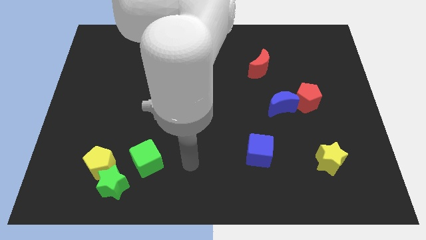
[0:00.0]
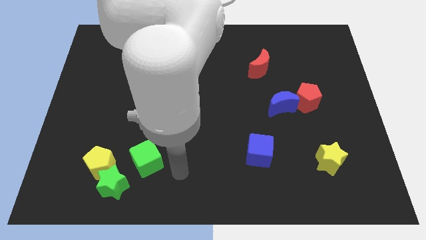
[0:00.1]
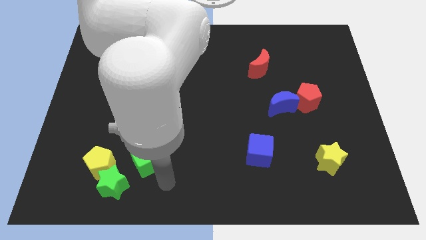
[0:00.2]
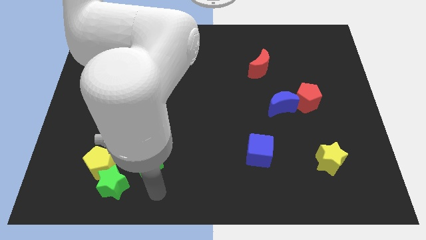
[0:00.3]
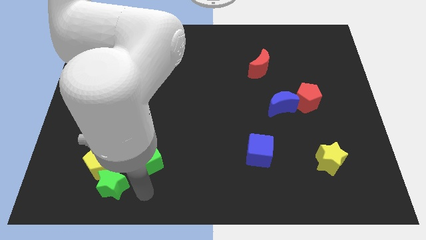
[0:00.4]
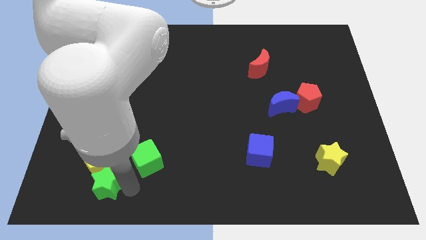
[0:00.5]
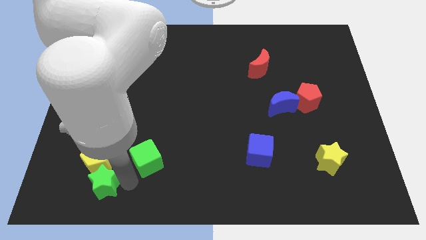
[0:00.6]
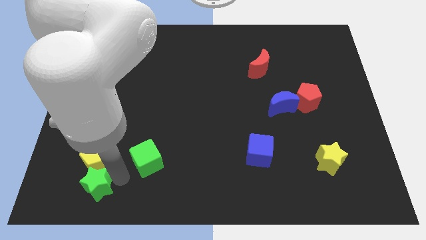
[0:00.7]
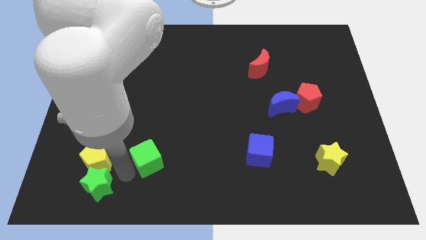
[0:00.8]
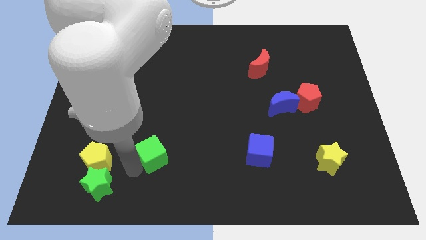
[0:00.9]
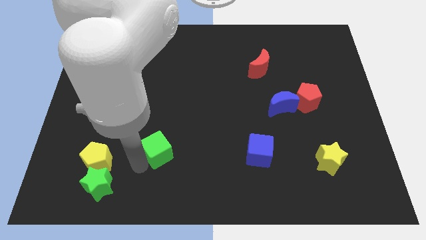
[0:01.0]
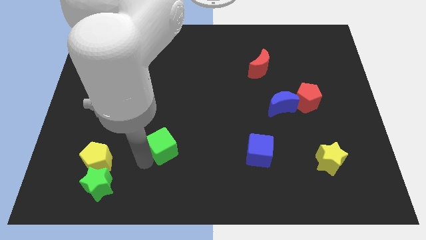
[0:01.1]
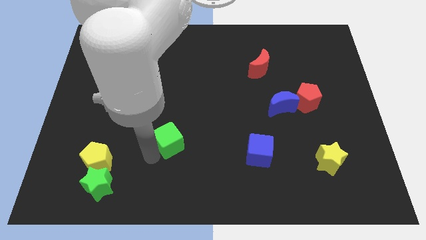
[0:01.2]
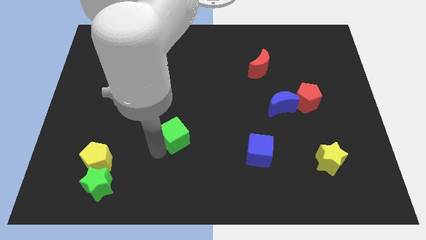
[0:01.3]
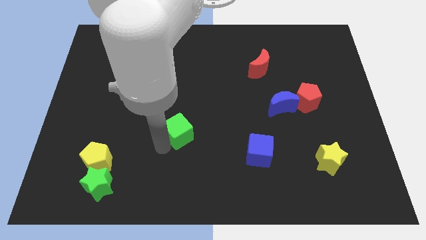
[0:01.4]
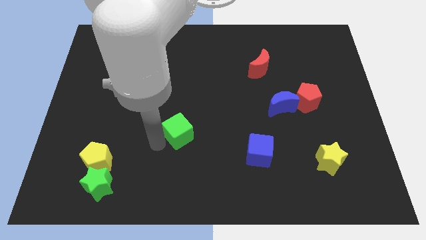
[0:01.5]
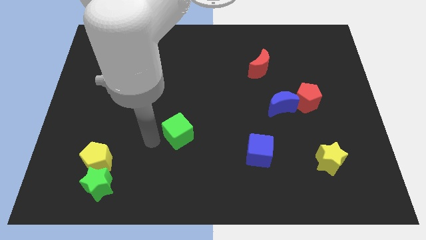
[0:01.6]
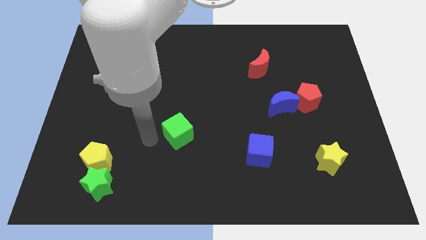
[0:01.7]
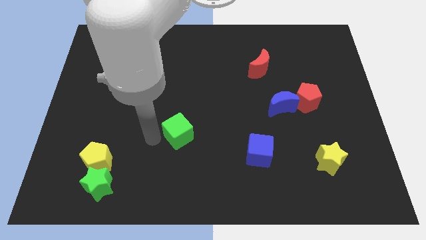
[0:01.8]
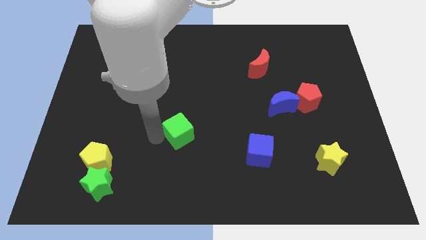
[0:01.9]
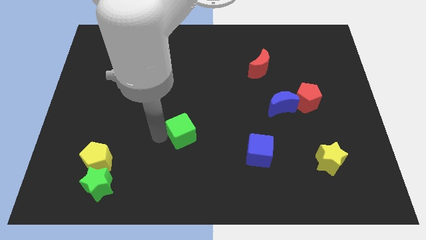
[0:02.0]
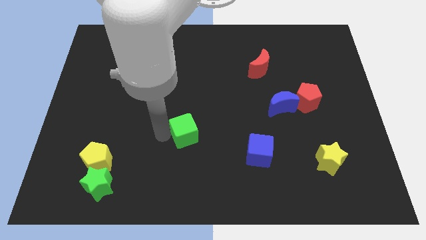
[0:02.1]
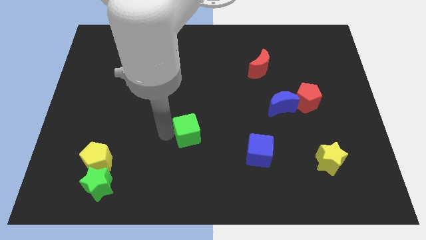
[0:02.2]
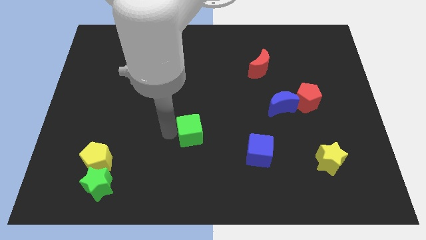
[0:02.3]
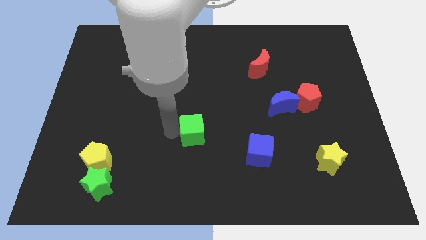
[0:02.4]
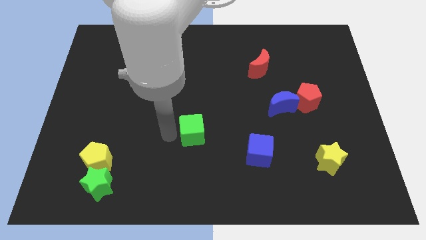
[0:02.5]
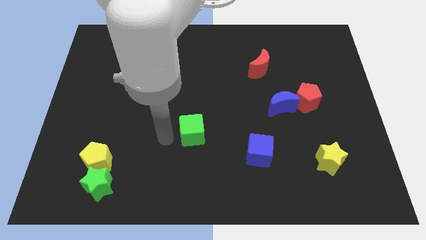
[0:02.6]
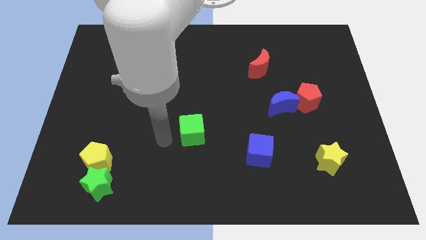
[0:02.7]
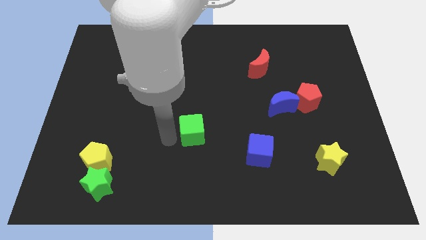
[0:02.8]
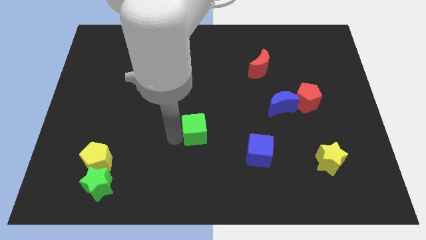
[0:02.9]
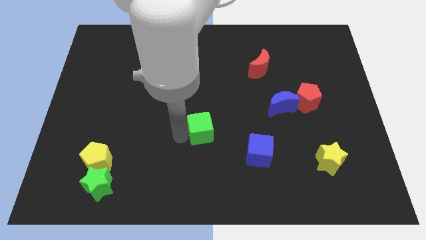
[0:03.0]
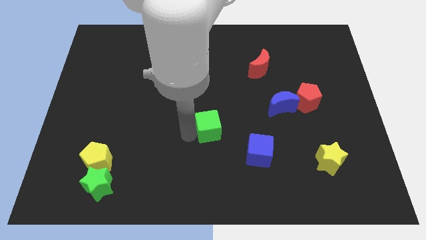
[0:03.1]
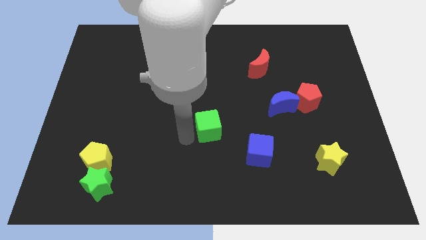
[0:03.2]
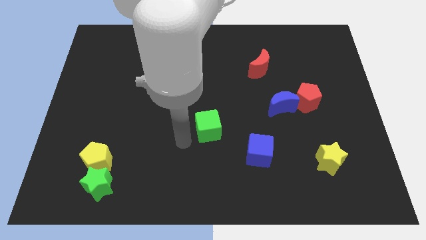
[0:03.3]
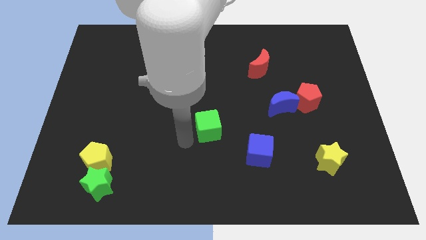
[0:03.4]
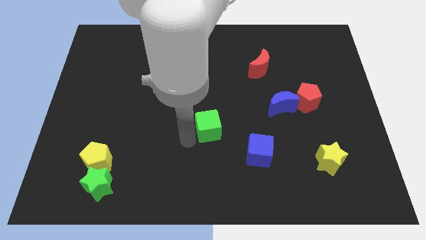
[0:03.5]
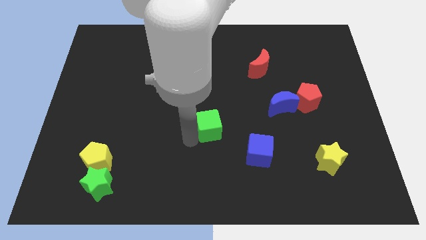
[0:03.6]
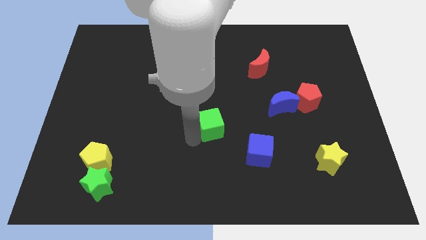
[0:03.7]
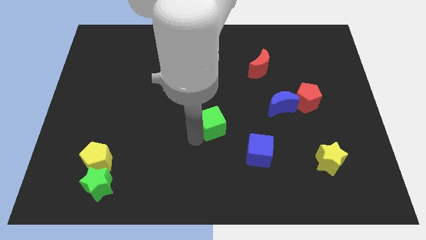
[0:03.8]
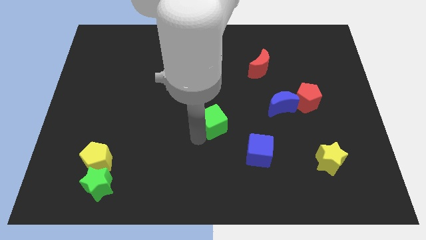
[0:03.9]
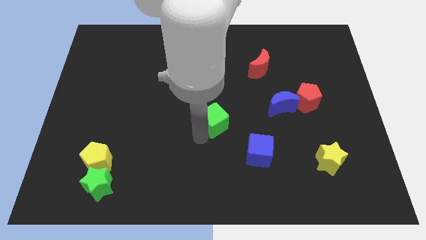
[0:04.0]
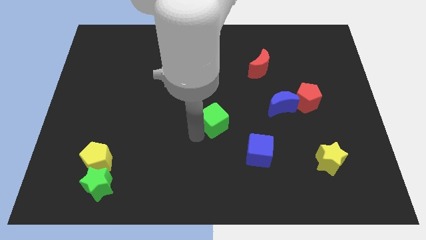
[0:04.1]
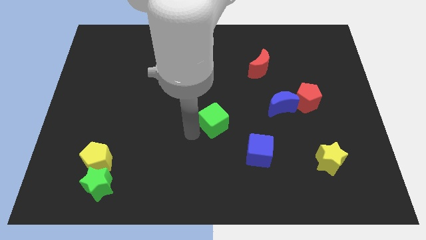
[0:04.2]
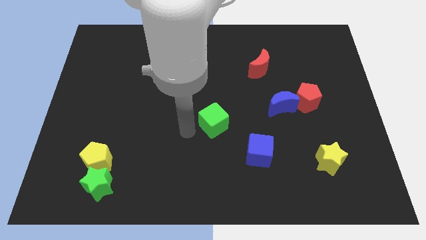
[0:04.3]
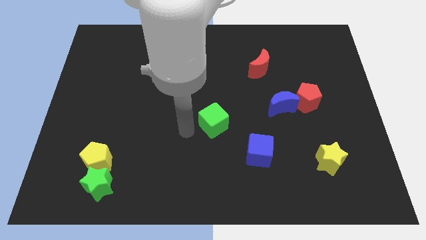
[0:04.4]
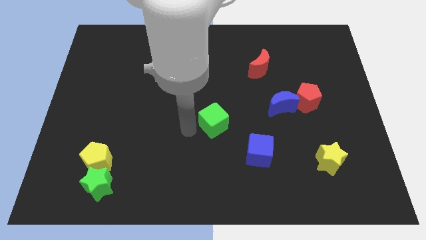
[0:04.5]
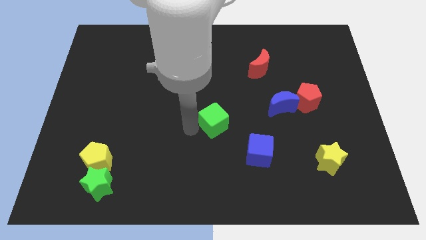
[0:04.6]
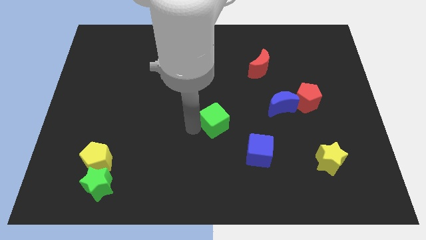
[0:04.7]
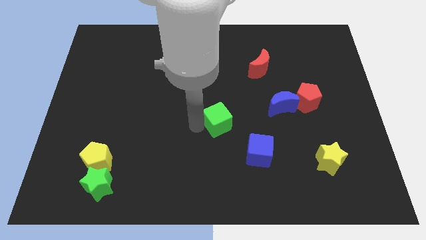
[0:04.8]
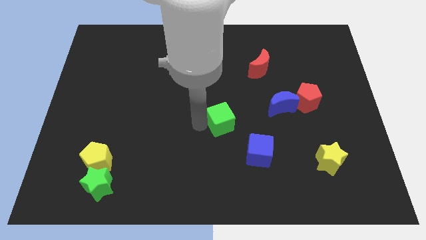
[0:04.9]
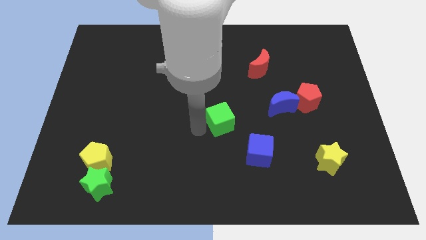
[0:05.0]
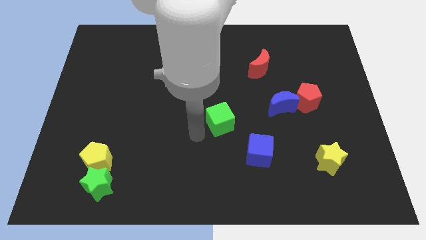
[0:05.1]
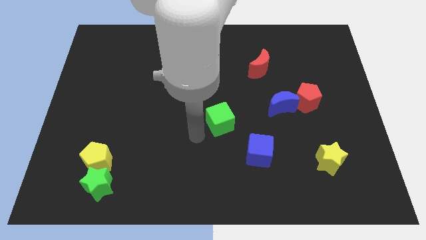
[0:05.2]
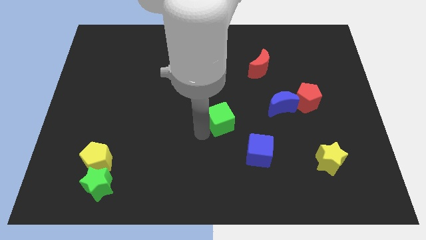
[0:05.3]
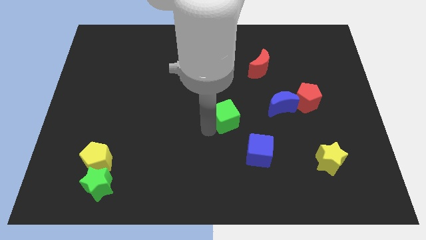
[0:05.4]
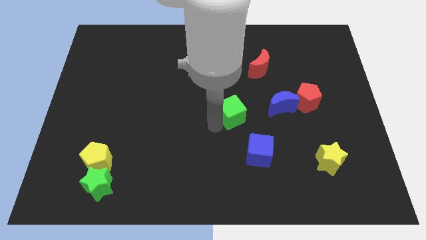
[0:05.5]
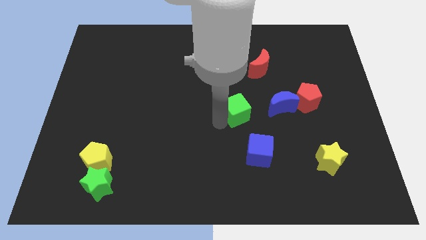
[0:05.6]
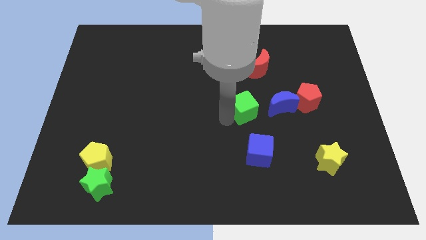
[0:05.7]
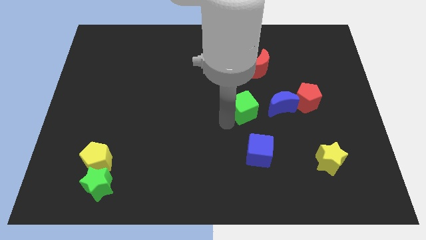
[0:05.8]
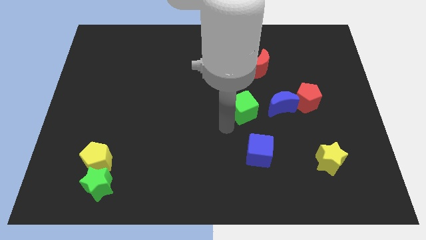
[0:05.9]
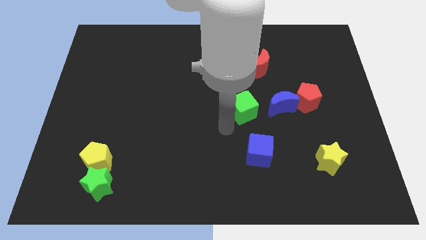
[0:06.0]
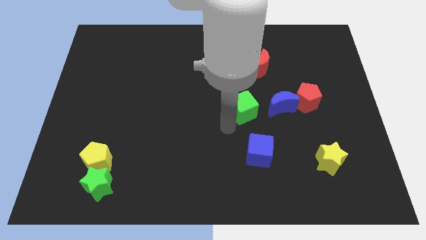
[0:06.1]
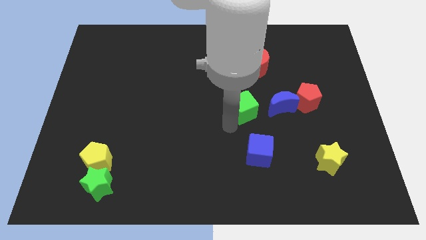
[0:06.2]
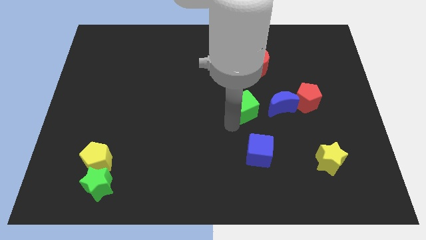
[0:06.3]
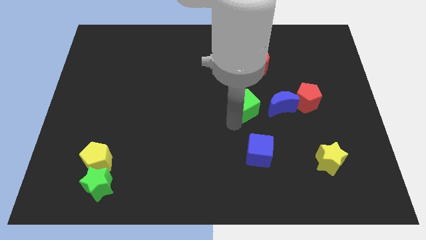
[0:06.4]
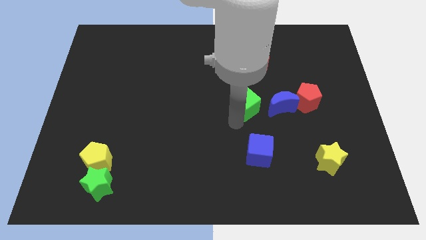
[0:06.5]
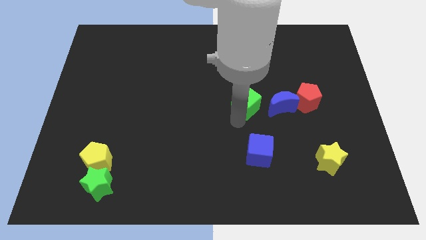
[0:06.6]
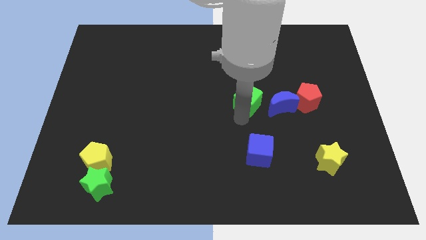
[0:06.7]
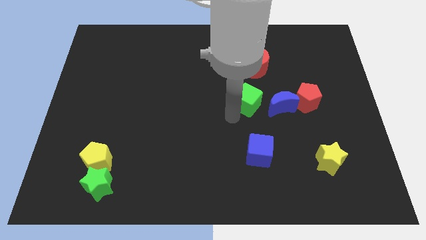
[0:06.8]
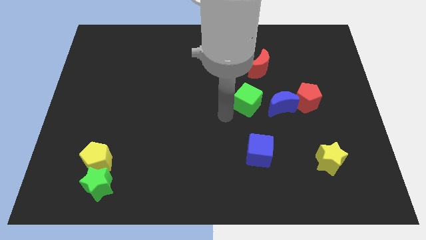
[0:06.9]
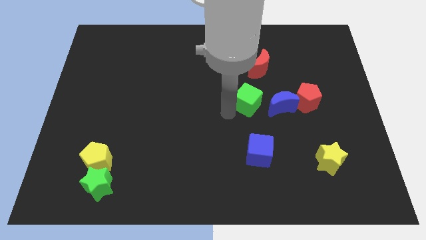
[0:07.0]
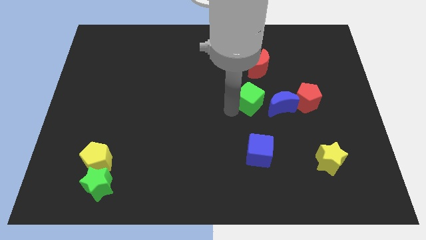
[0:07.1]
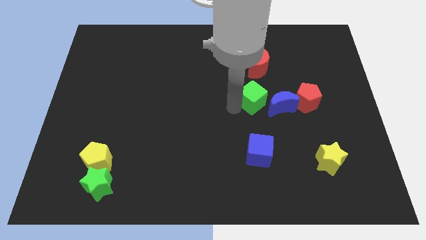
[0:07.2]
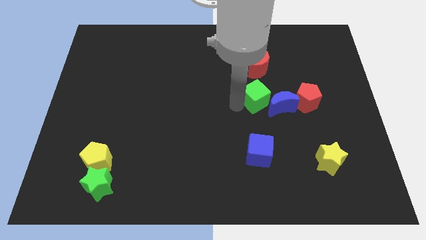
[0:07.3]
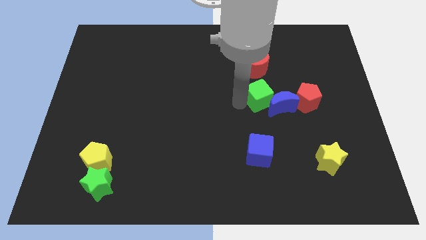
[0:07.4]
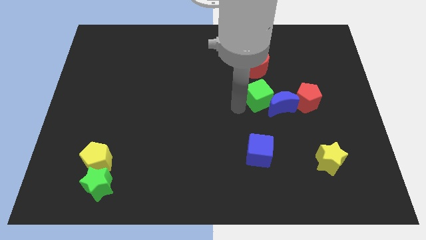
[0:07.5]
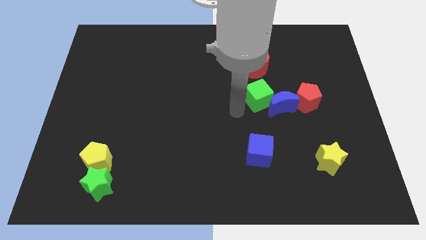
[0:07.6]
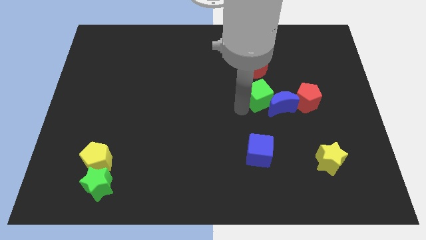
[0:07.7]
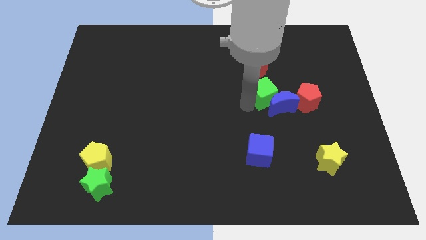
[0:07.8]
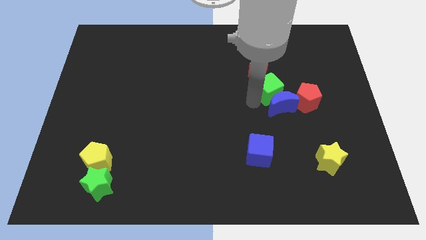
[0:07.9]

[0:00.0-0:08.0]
move the green cube to the top left side of the red pentagon
